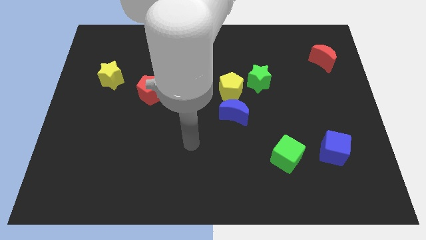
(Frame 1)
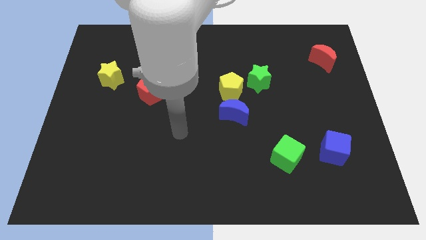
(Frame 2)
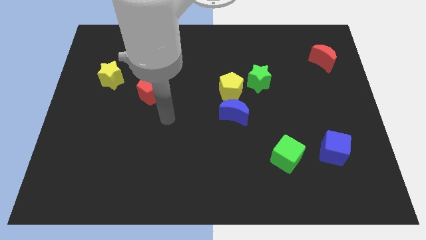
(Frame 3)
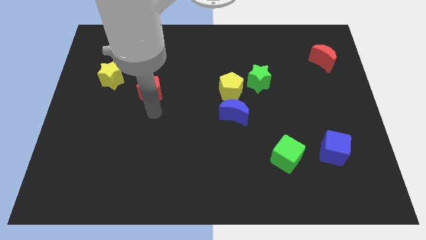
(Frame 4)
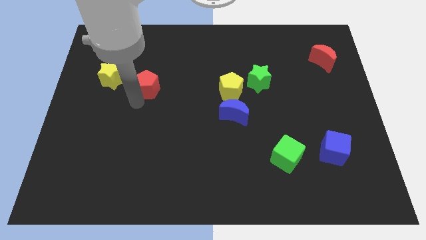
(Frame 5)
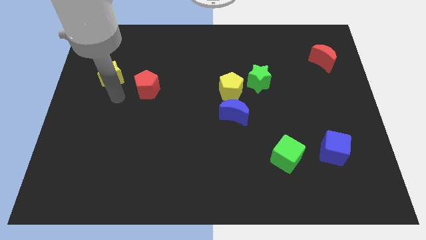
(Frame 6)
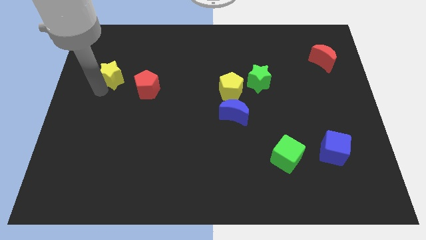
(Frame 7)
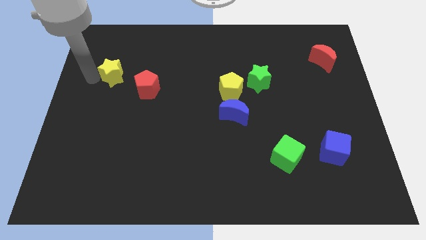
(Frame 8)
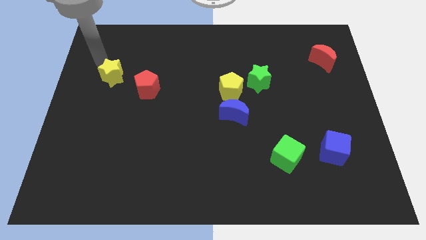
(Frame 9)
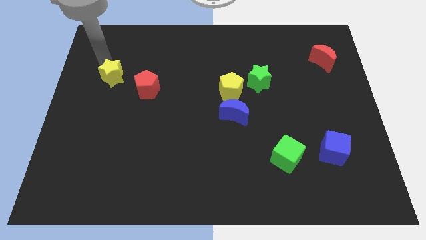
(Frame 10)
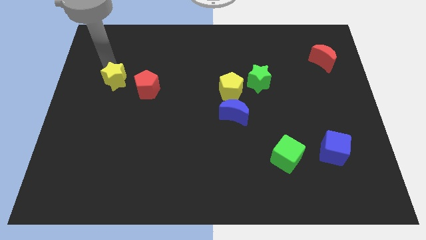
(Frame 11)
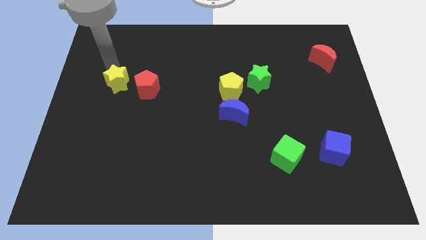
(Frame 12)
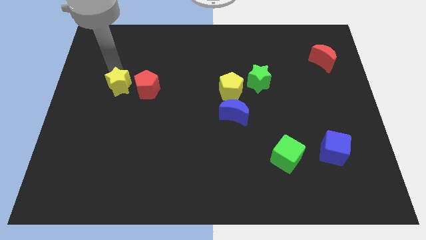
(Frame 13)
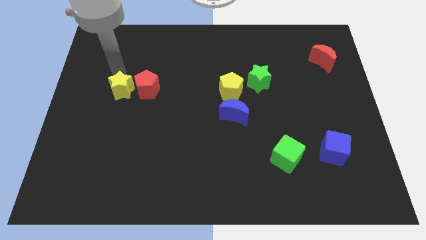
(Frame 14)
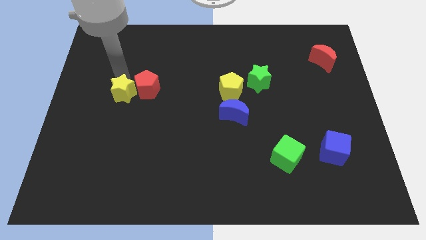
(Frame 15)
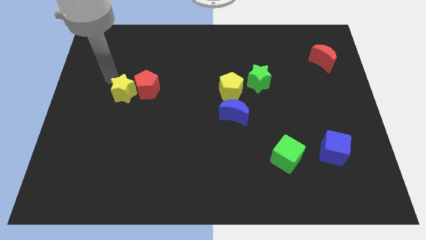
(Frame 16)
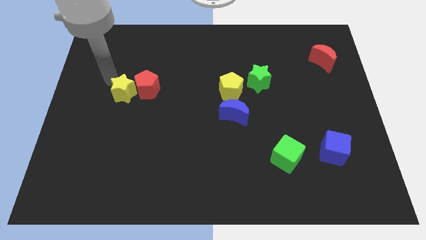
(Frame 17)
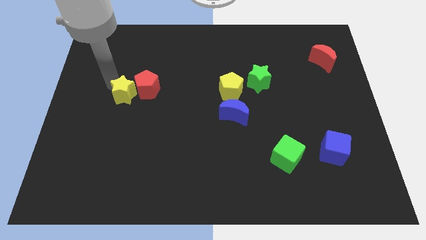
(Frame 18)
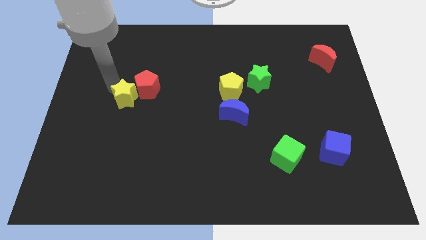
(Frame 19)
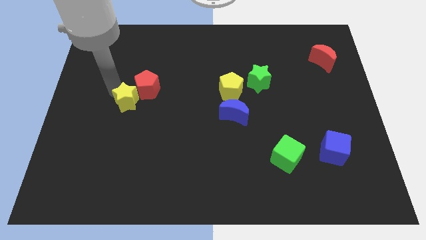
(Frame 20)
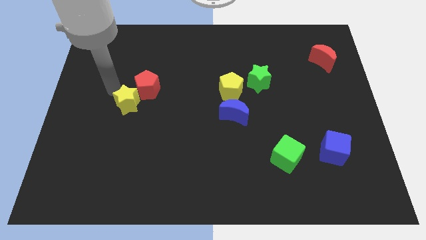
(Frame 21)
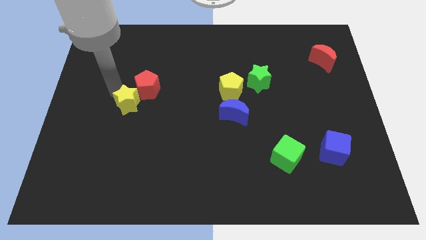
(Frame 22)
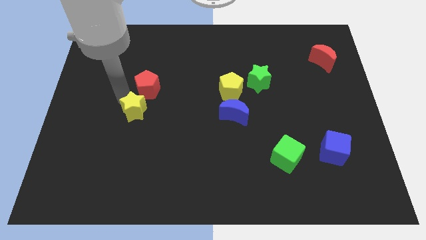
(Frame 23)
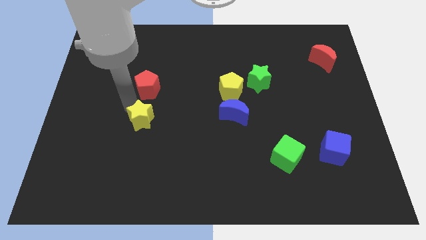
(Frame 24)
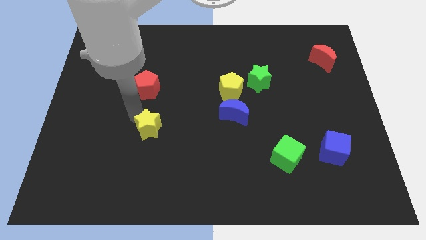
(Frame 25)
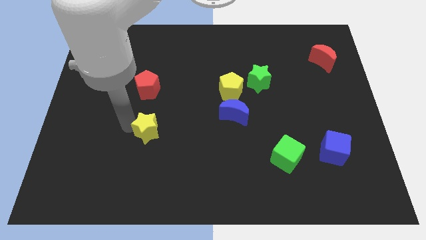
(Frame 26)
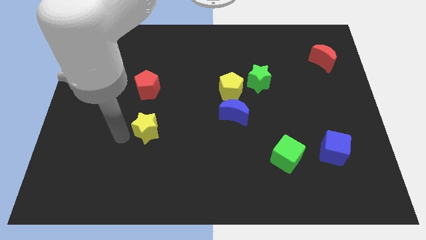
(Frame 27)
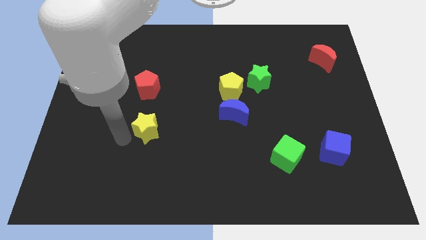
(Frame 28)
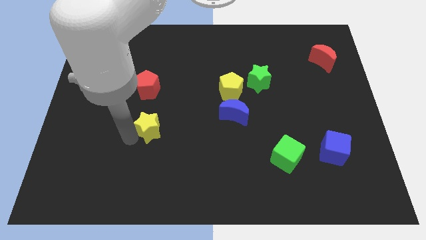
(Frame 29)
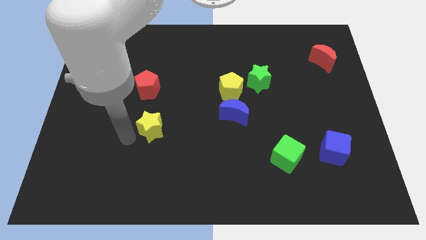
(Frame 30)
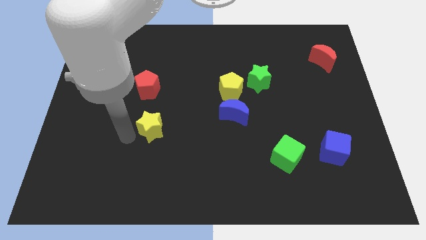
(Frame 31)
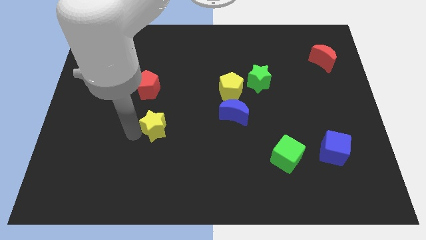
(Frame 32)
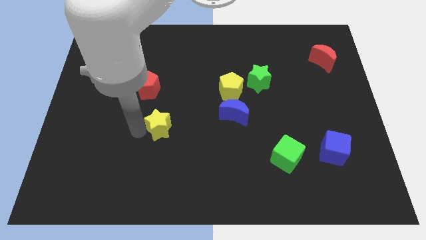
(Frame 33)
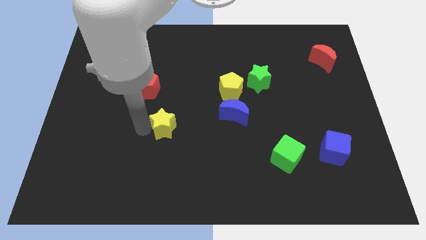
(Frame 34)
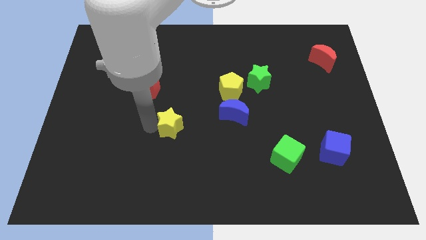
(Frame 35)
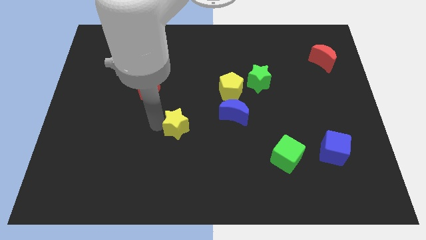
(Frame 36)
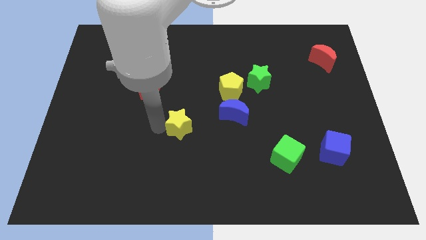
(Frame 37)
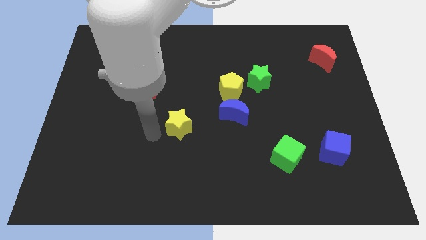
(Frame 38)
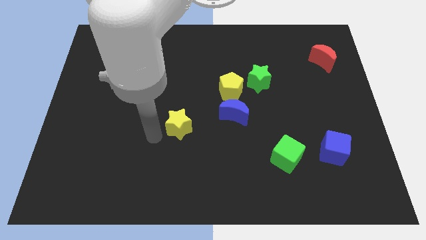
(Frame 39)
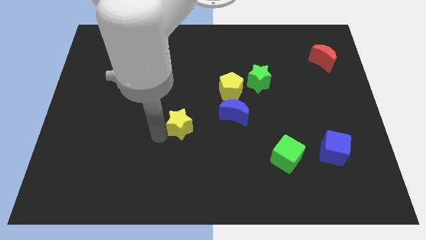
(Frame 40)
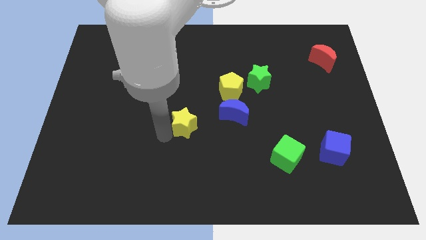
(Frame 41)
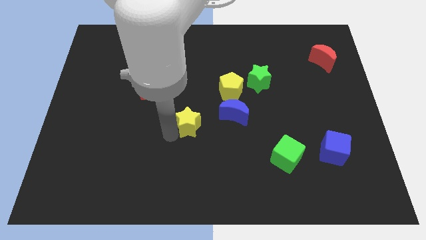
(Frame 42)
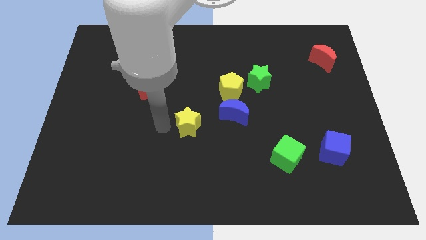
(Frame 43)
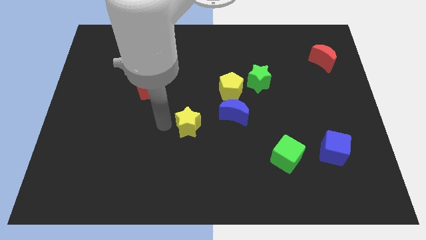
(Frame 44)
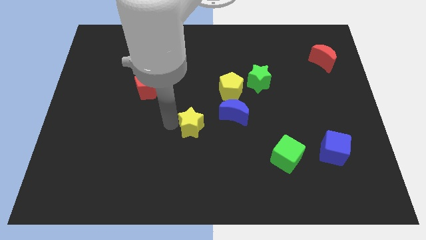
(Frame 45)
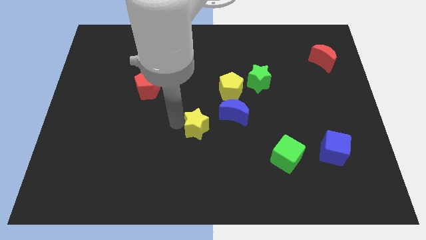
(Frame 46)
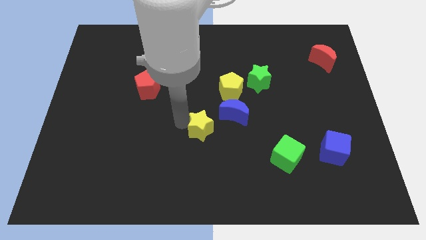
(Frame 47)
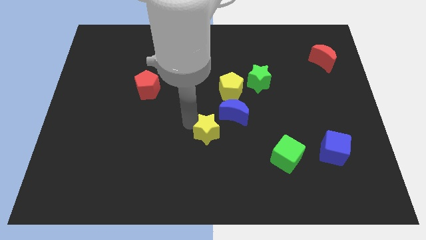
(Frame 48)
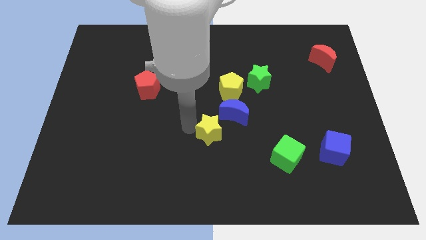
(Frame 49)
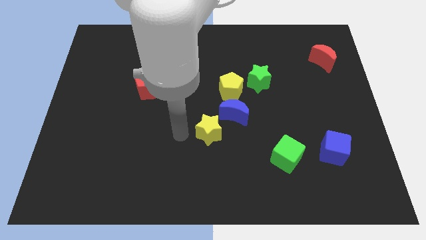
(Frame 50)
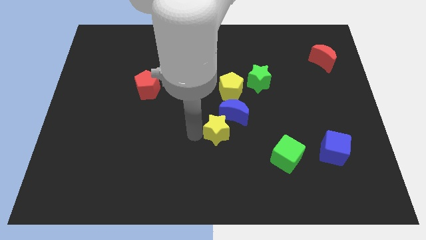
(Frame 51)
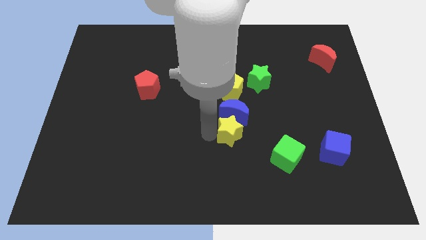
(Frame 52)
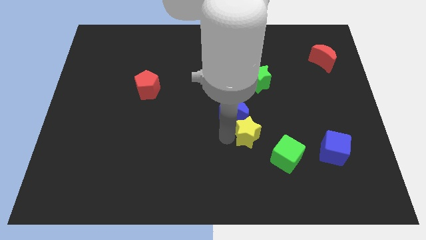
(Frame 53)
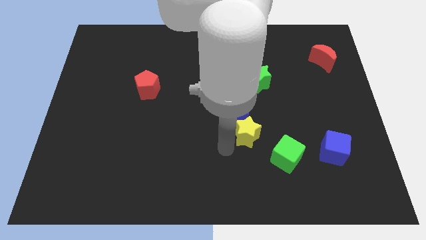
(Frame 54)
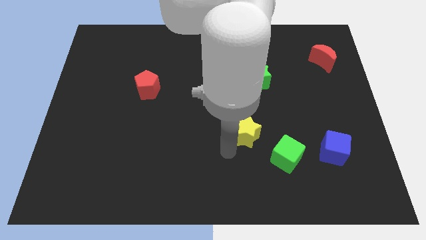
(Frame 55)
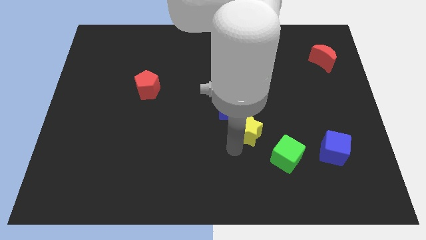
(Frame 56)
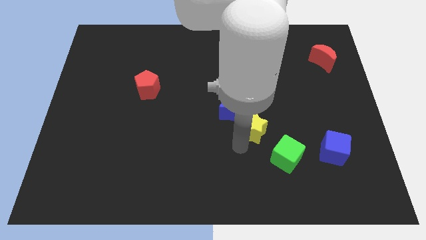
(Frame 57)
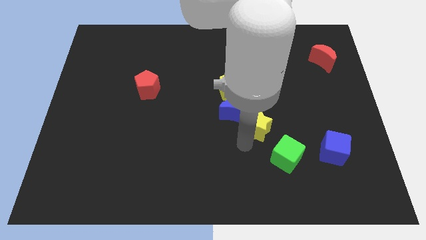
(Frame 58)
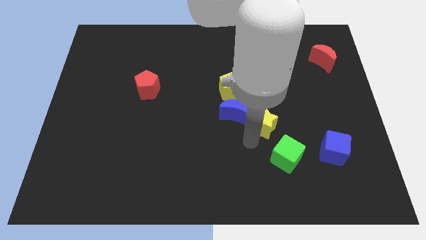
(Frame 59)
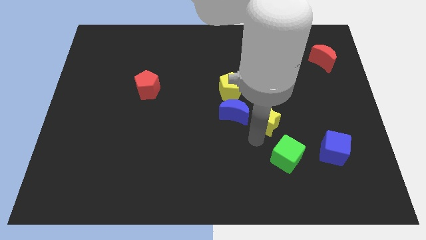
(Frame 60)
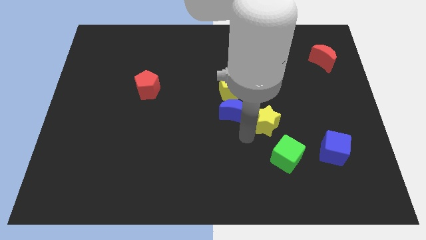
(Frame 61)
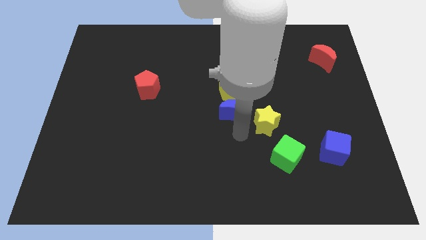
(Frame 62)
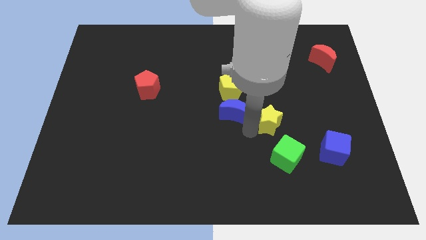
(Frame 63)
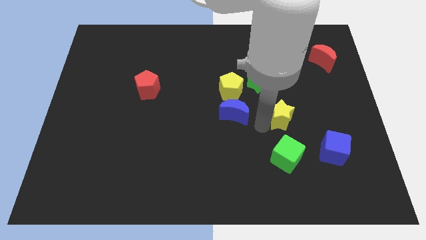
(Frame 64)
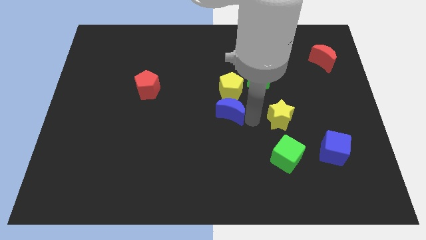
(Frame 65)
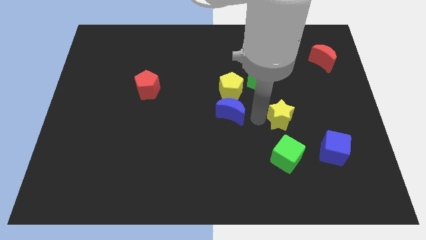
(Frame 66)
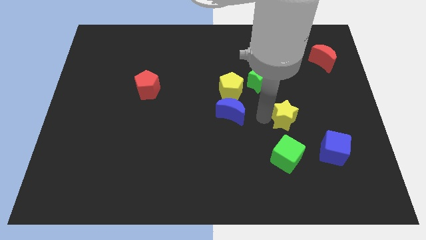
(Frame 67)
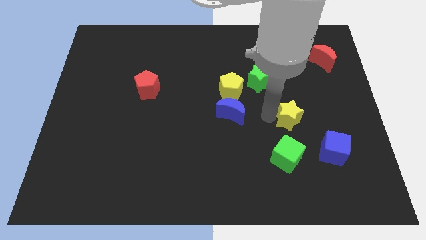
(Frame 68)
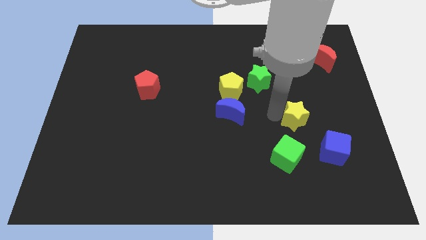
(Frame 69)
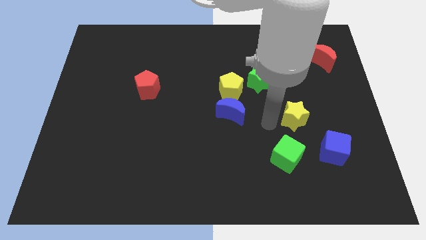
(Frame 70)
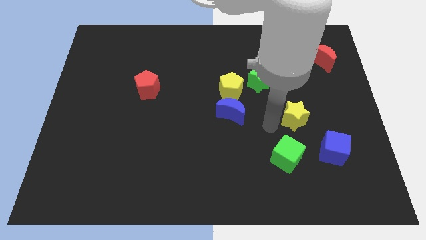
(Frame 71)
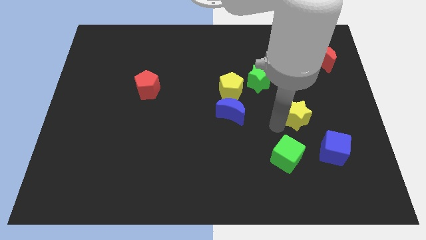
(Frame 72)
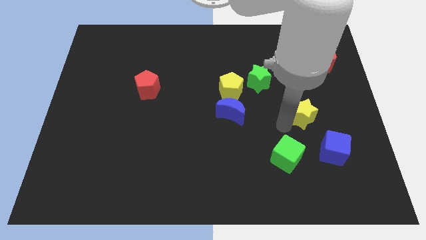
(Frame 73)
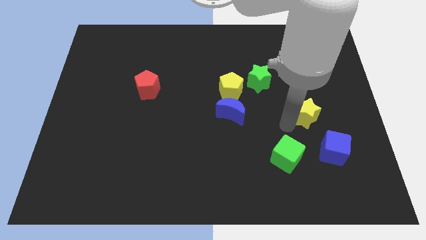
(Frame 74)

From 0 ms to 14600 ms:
slide the yellow star to the top side of the blue cube
